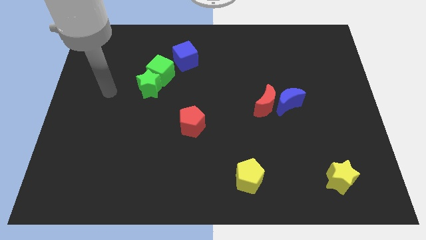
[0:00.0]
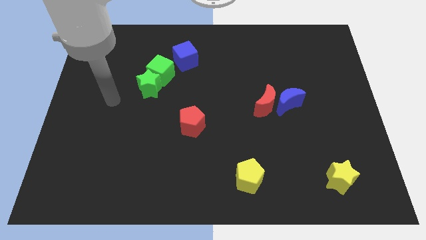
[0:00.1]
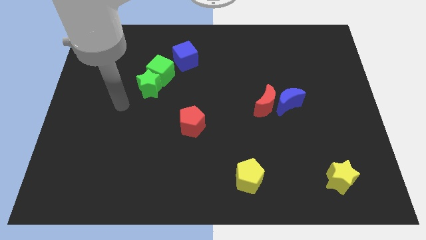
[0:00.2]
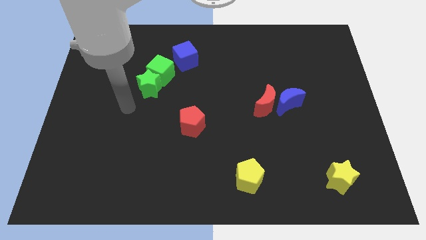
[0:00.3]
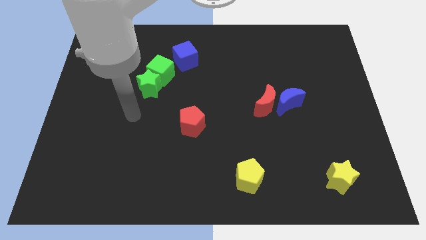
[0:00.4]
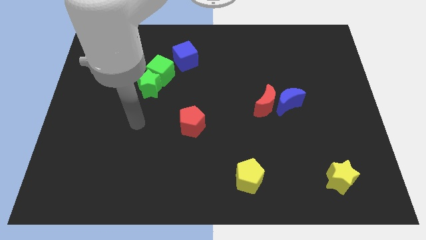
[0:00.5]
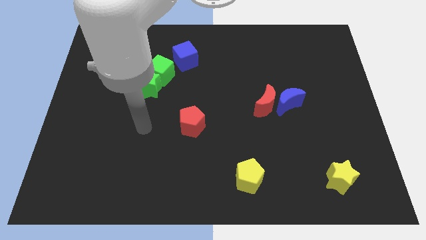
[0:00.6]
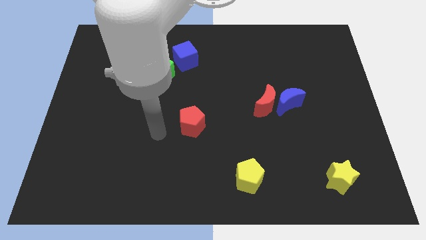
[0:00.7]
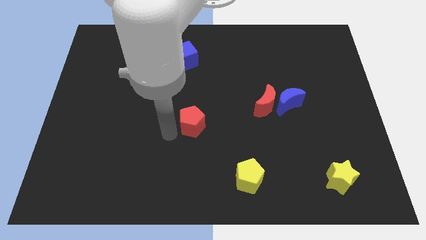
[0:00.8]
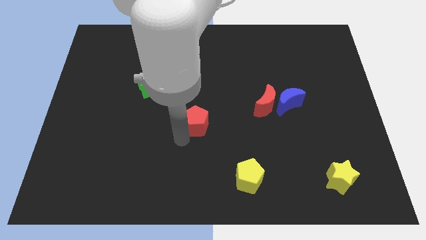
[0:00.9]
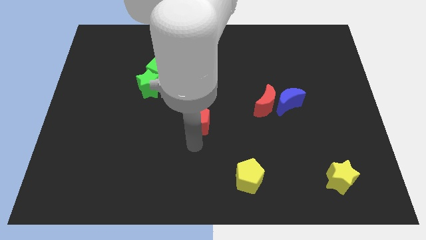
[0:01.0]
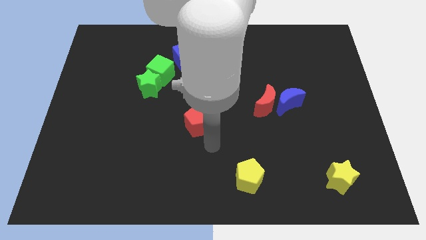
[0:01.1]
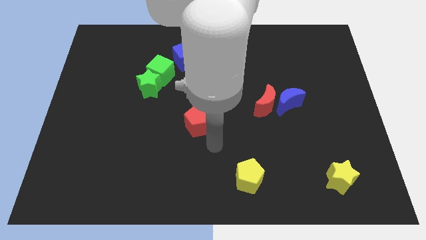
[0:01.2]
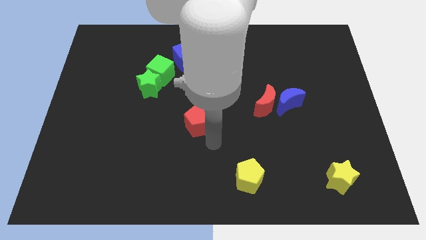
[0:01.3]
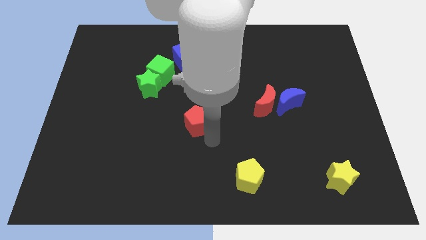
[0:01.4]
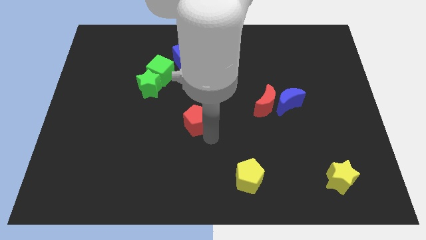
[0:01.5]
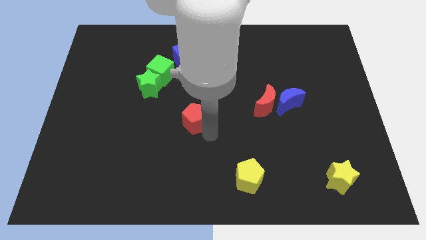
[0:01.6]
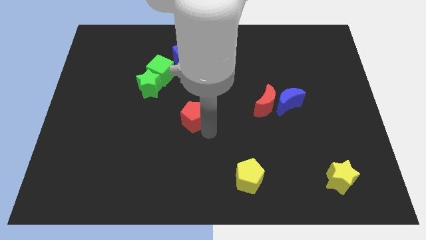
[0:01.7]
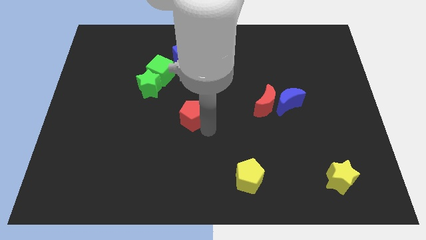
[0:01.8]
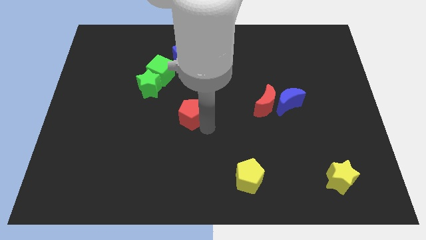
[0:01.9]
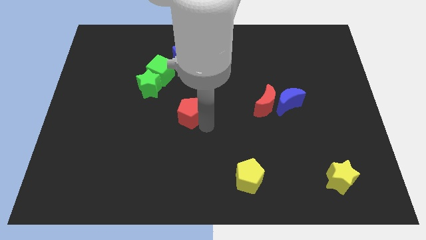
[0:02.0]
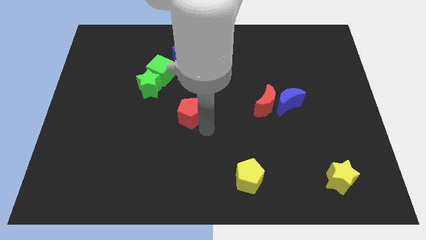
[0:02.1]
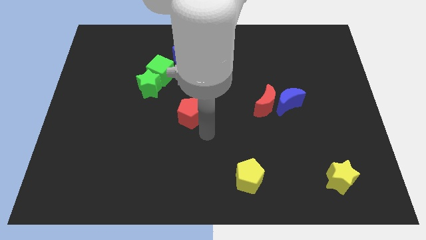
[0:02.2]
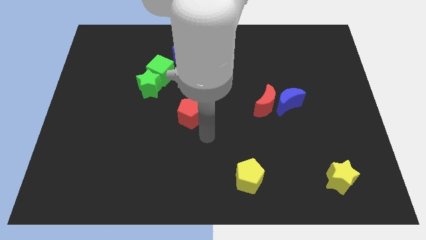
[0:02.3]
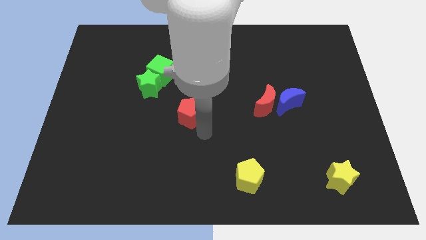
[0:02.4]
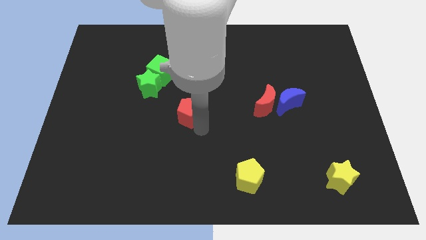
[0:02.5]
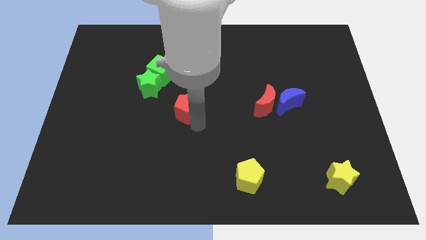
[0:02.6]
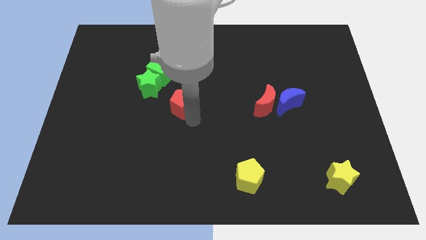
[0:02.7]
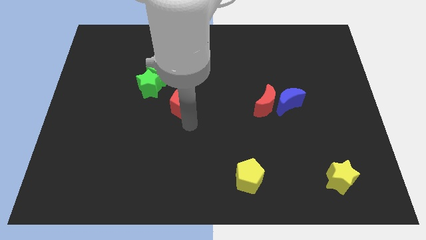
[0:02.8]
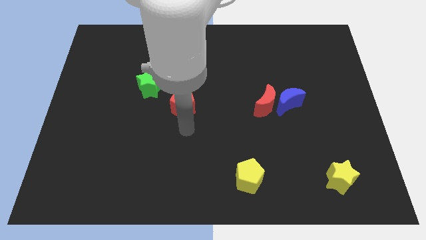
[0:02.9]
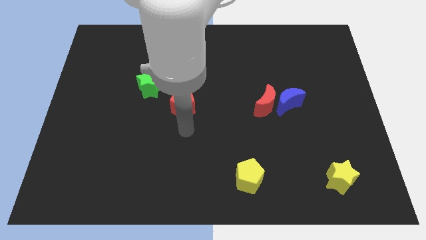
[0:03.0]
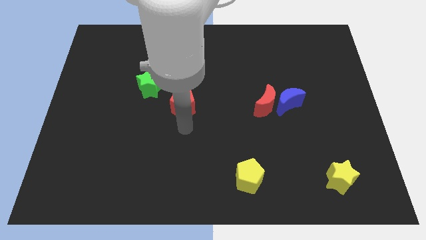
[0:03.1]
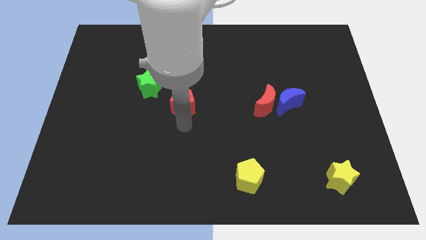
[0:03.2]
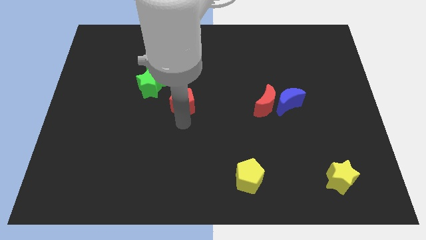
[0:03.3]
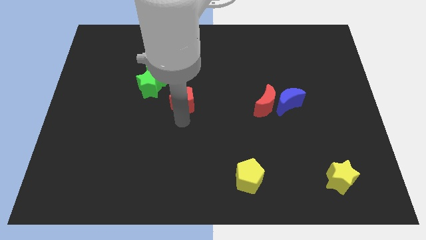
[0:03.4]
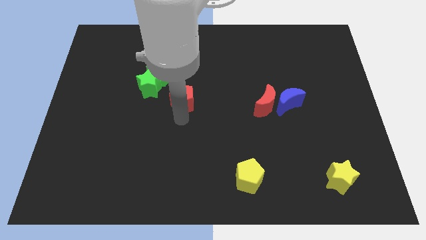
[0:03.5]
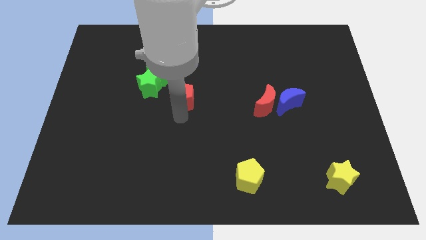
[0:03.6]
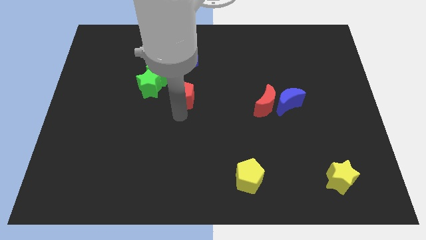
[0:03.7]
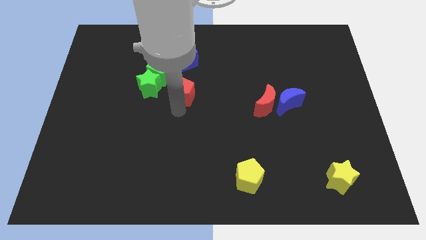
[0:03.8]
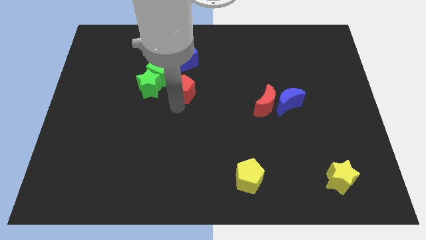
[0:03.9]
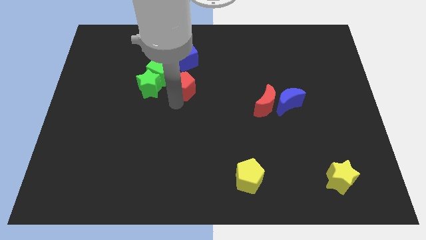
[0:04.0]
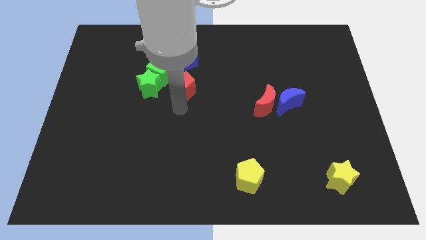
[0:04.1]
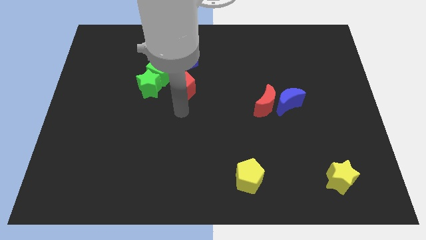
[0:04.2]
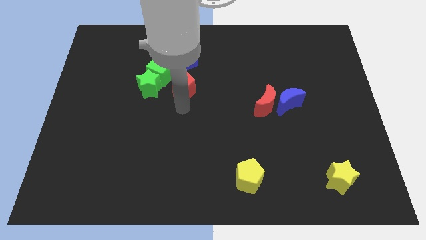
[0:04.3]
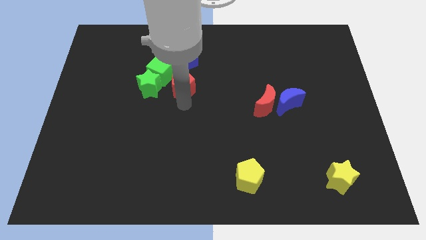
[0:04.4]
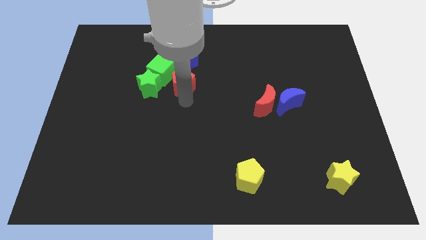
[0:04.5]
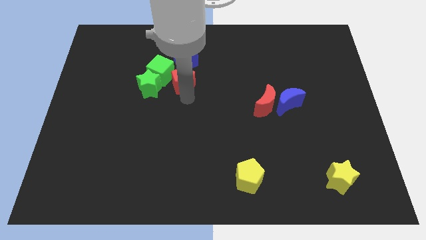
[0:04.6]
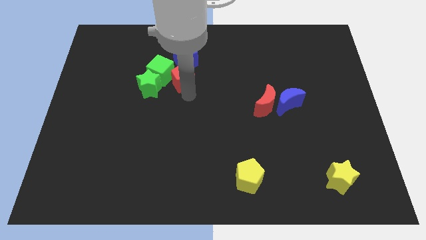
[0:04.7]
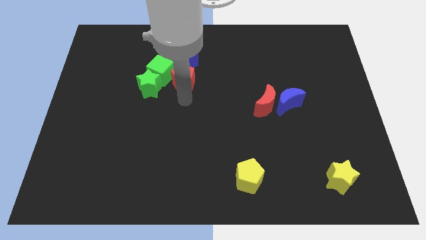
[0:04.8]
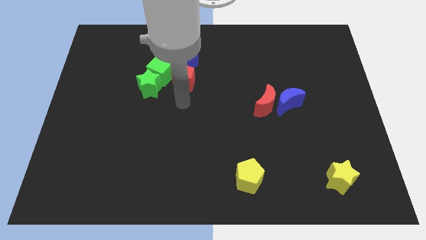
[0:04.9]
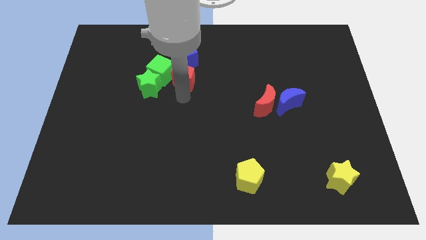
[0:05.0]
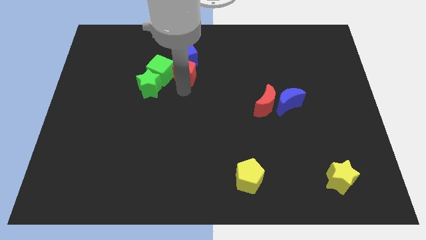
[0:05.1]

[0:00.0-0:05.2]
move the red pentagon to the blue cube

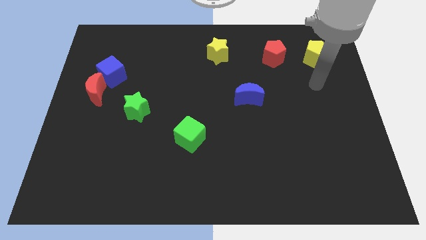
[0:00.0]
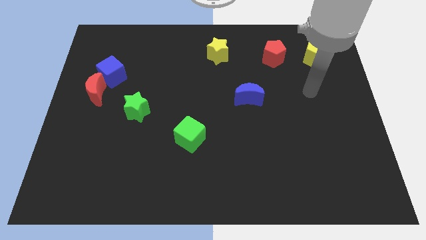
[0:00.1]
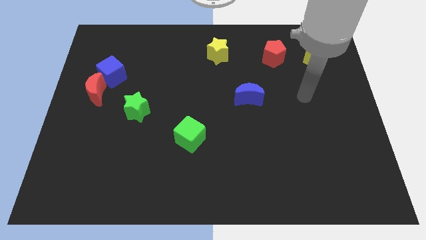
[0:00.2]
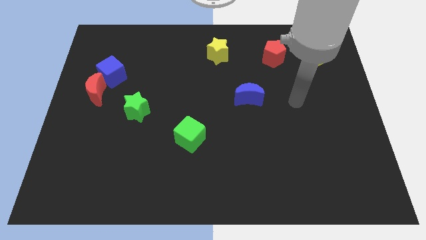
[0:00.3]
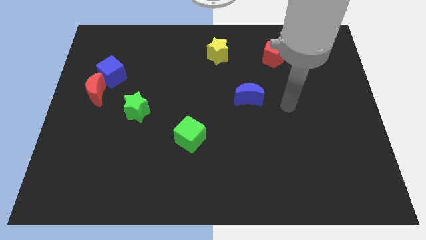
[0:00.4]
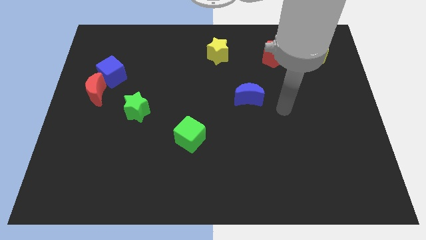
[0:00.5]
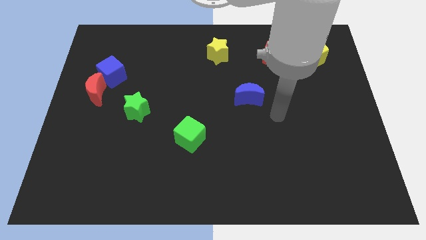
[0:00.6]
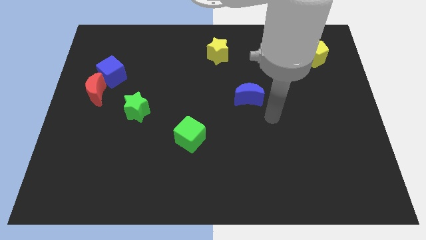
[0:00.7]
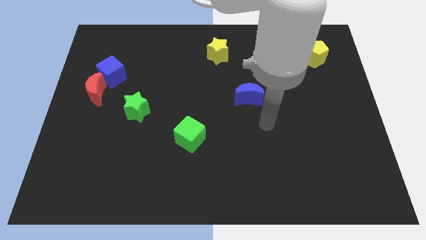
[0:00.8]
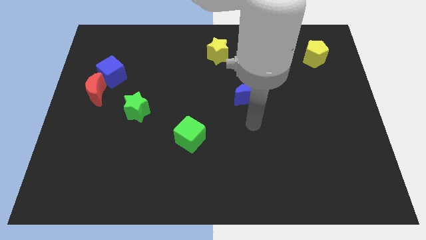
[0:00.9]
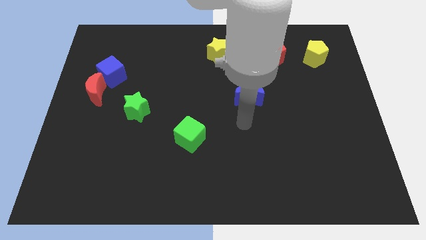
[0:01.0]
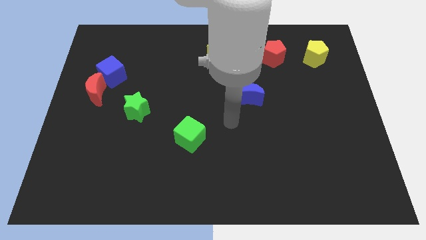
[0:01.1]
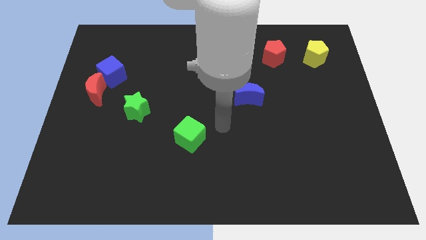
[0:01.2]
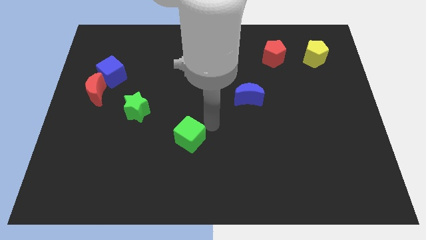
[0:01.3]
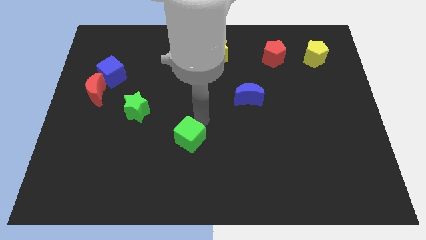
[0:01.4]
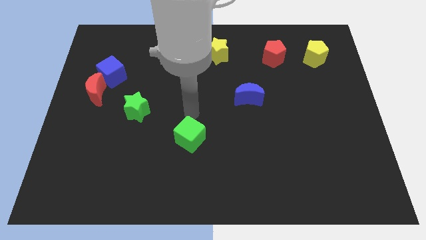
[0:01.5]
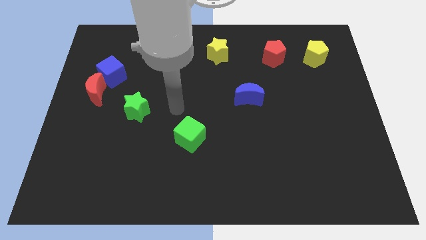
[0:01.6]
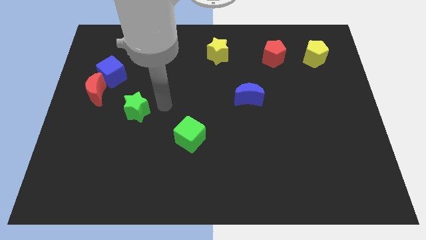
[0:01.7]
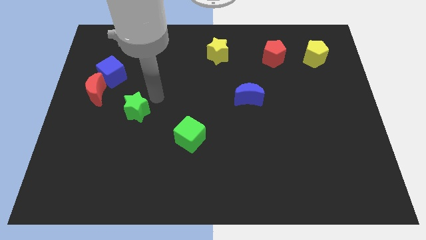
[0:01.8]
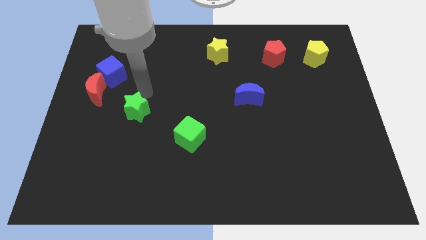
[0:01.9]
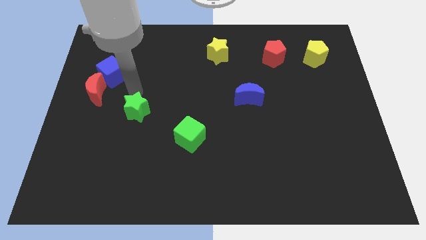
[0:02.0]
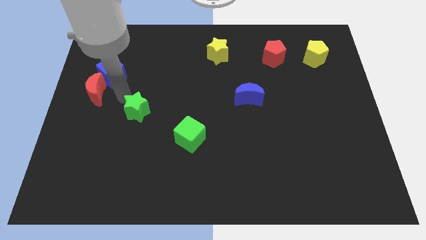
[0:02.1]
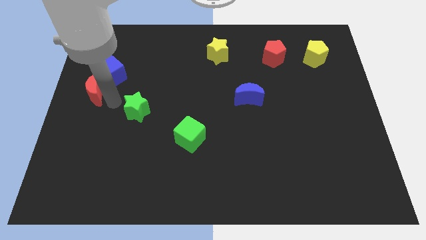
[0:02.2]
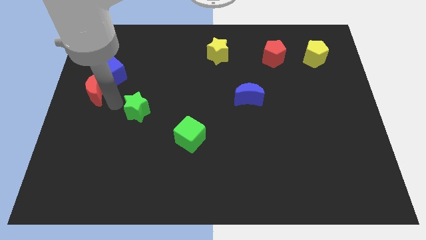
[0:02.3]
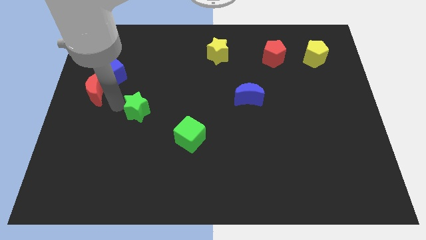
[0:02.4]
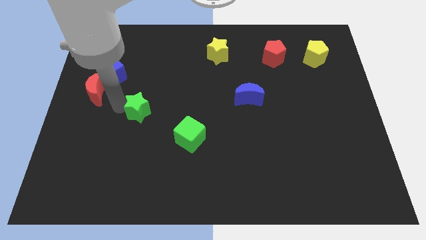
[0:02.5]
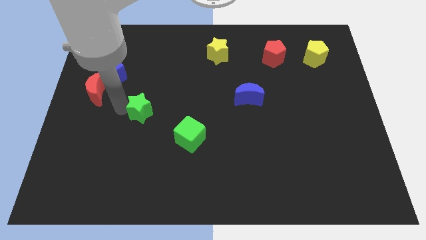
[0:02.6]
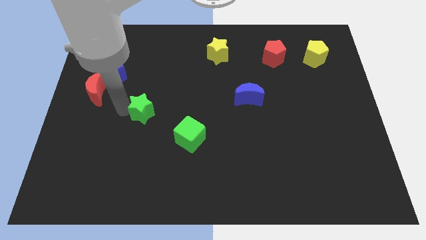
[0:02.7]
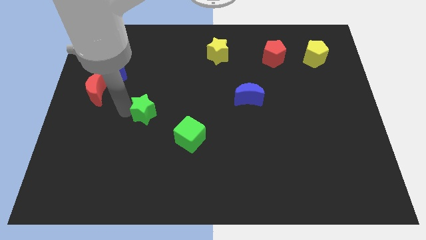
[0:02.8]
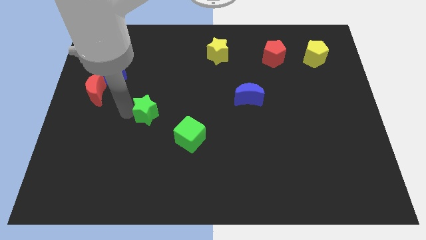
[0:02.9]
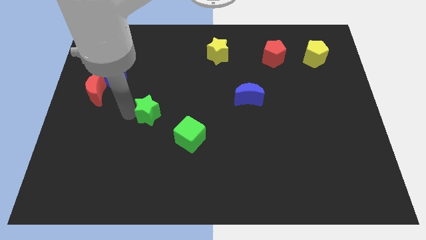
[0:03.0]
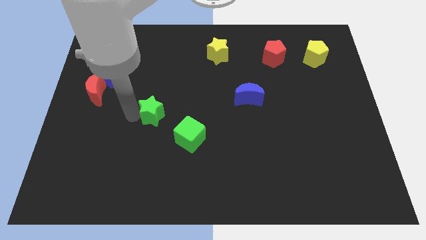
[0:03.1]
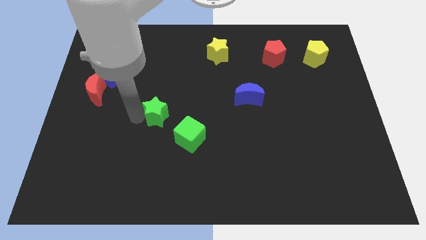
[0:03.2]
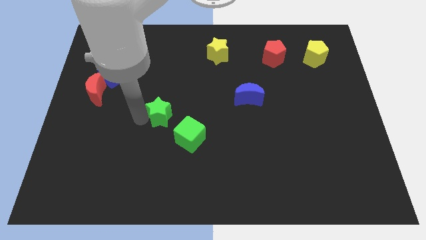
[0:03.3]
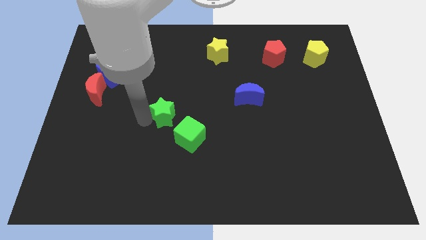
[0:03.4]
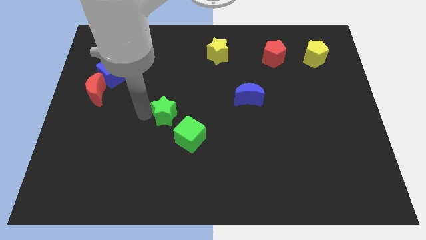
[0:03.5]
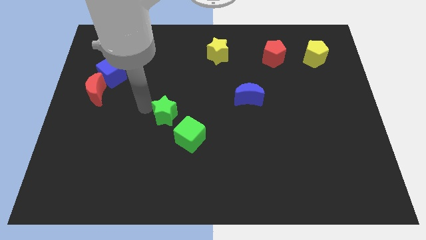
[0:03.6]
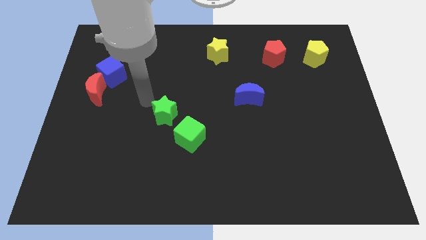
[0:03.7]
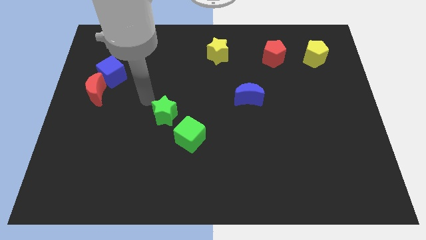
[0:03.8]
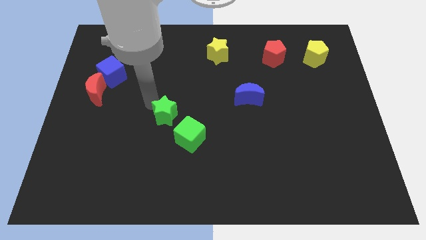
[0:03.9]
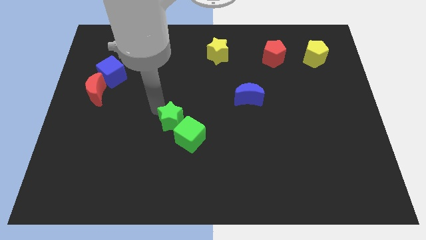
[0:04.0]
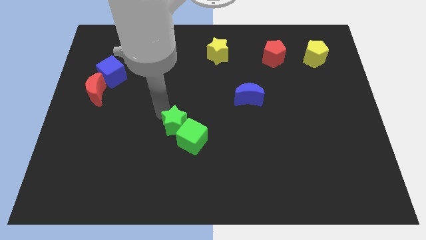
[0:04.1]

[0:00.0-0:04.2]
put the green star next to the green cube
